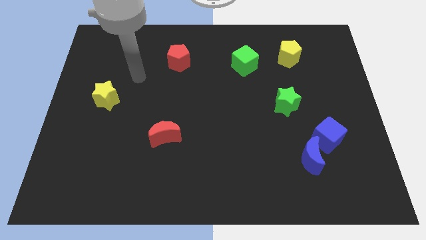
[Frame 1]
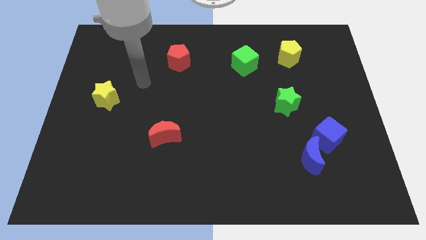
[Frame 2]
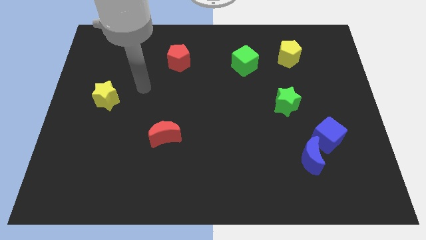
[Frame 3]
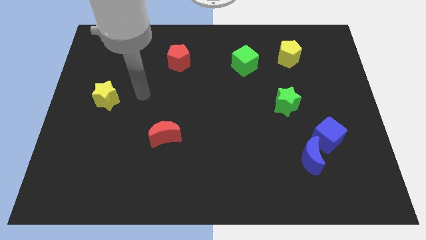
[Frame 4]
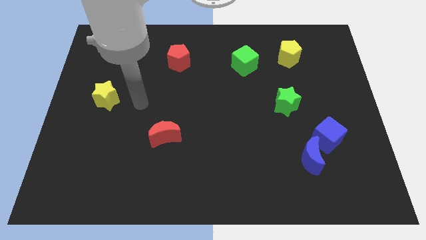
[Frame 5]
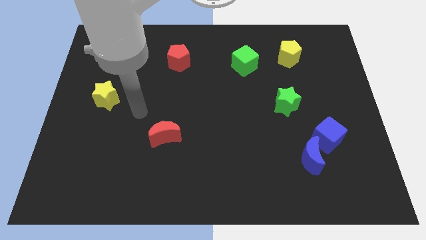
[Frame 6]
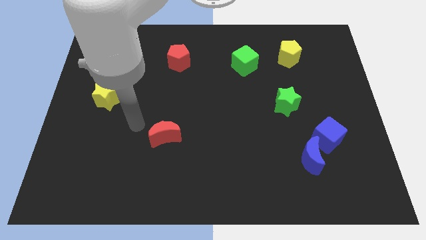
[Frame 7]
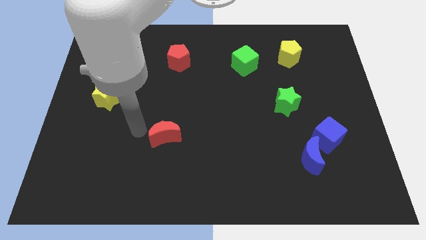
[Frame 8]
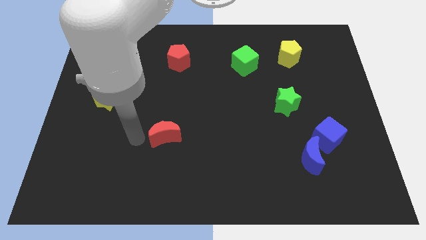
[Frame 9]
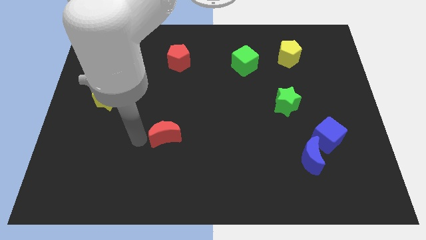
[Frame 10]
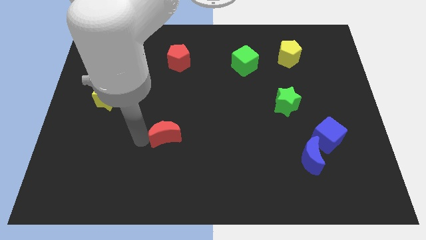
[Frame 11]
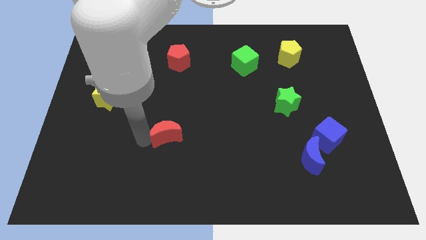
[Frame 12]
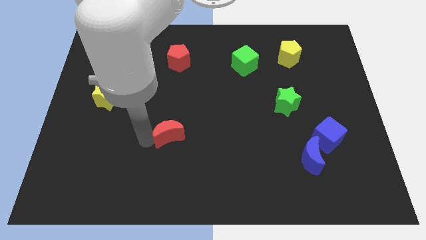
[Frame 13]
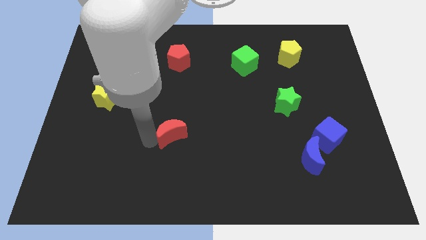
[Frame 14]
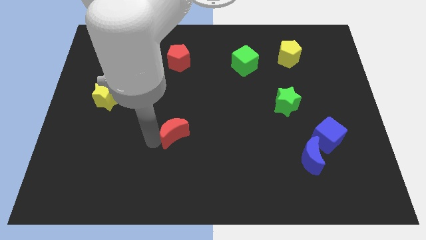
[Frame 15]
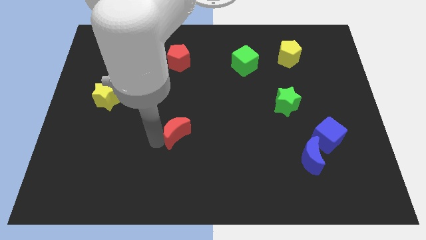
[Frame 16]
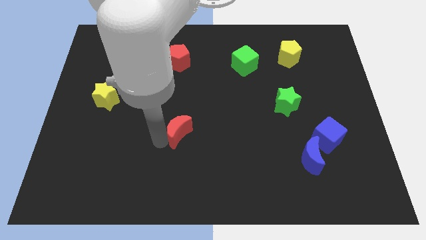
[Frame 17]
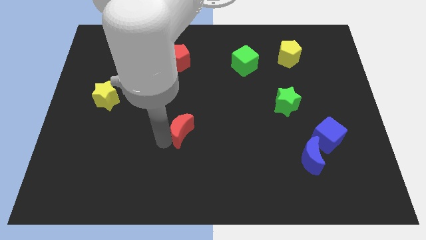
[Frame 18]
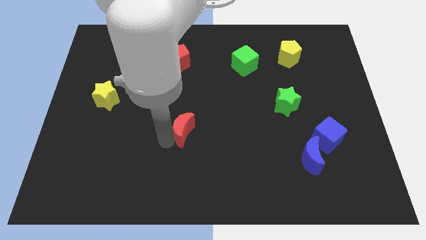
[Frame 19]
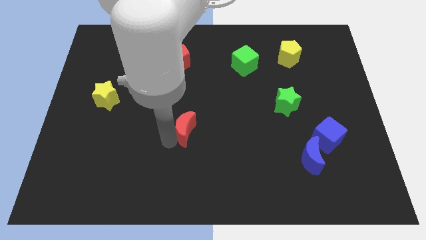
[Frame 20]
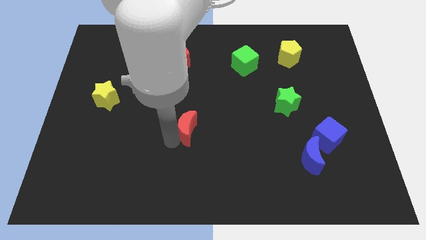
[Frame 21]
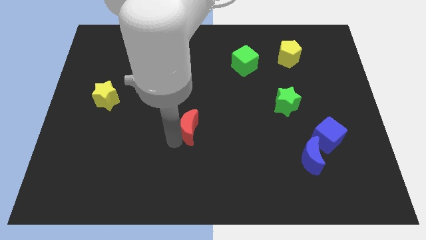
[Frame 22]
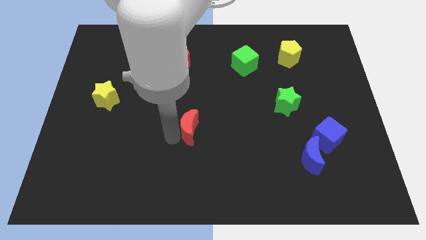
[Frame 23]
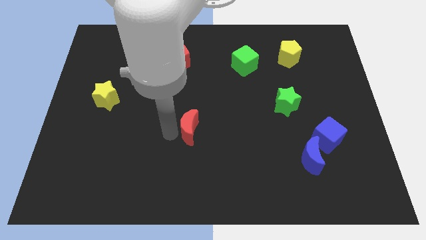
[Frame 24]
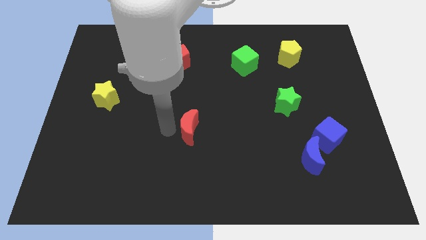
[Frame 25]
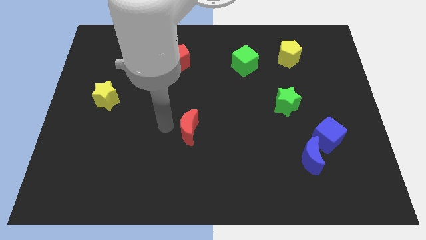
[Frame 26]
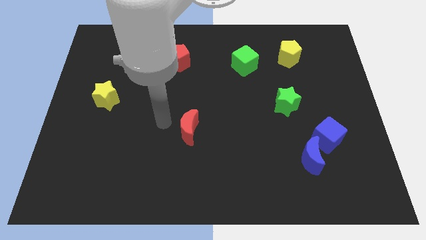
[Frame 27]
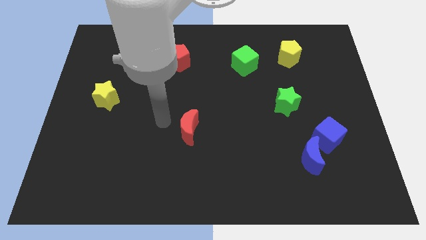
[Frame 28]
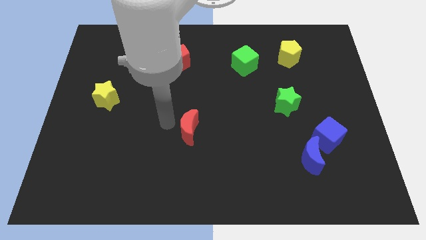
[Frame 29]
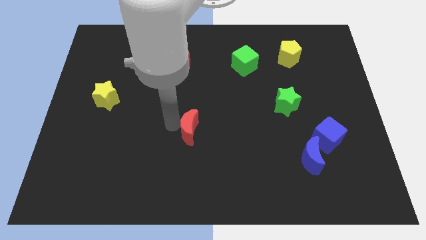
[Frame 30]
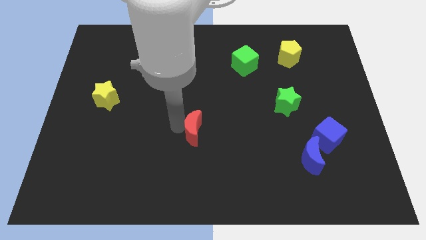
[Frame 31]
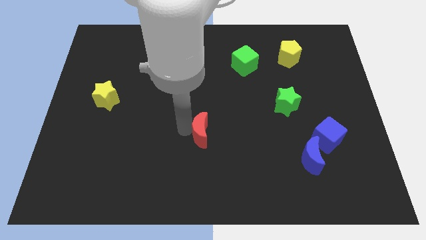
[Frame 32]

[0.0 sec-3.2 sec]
push the red moon somewhat right

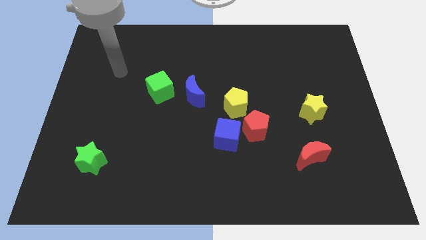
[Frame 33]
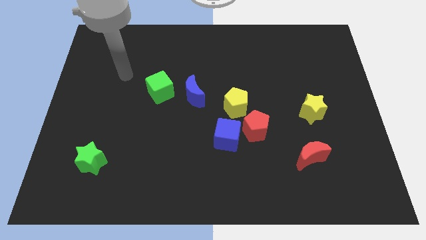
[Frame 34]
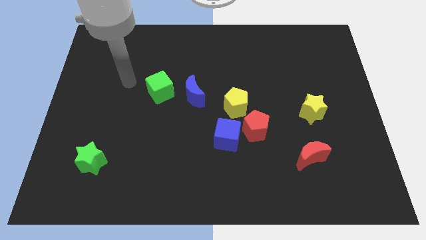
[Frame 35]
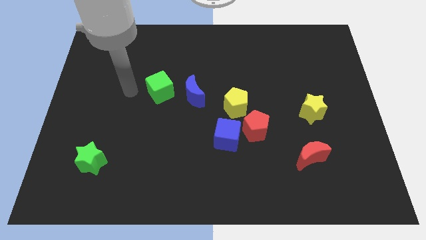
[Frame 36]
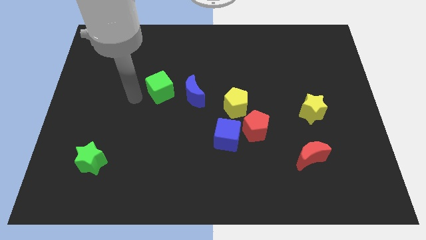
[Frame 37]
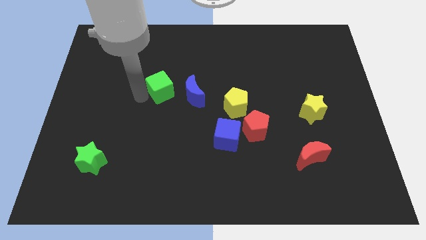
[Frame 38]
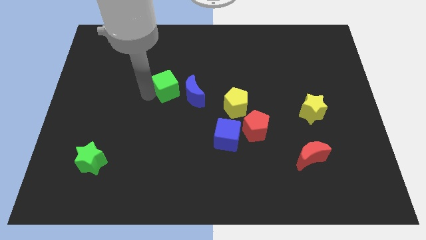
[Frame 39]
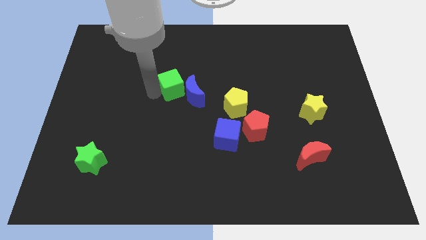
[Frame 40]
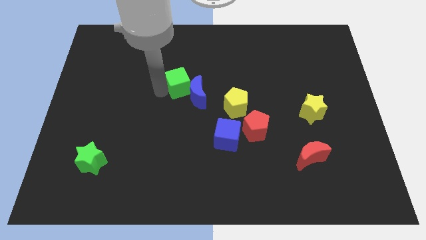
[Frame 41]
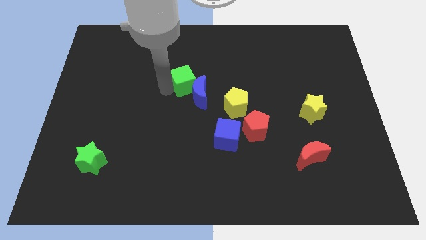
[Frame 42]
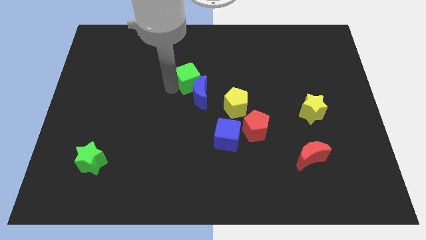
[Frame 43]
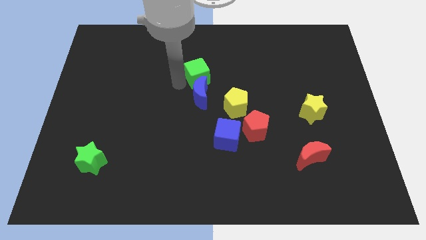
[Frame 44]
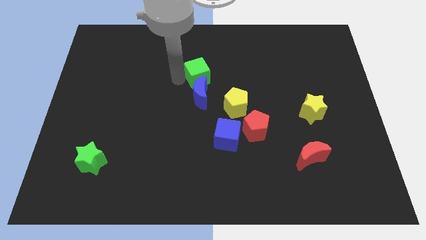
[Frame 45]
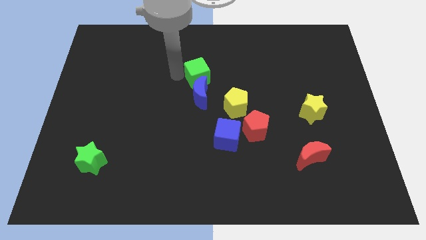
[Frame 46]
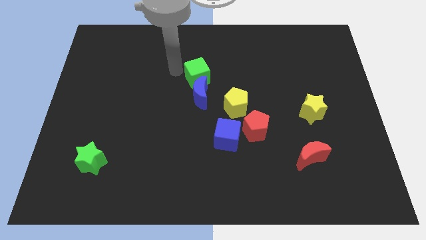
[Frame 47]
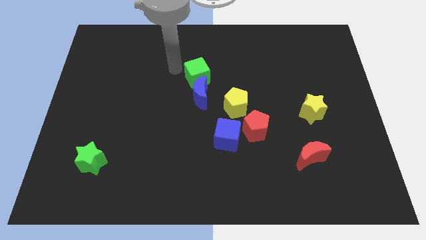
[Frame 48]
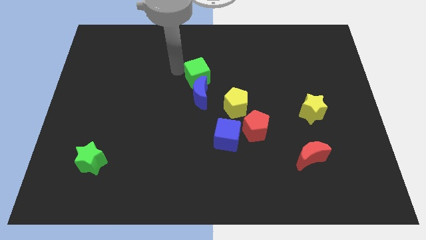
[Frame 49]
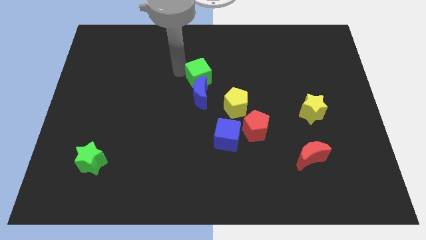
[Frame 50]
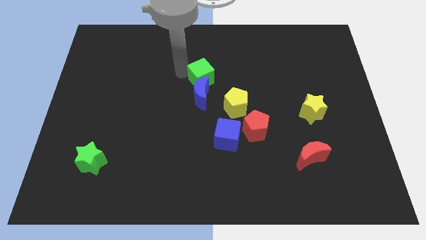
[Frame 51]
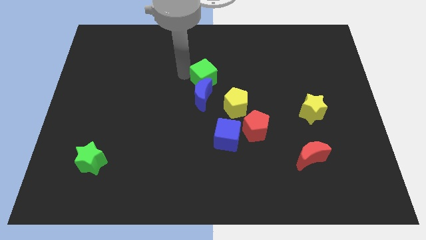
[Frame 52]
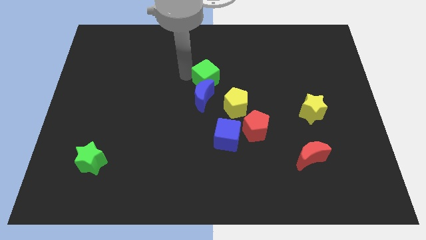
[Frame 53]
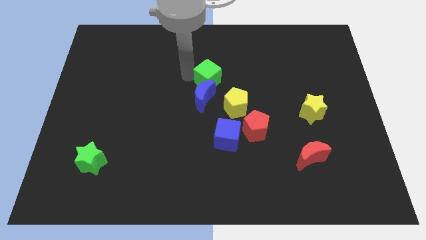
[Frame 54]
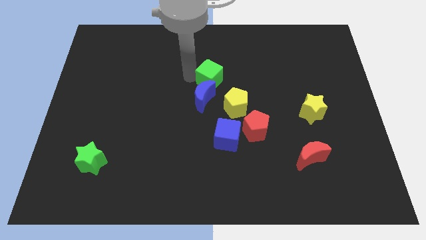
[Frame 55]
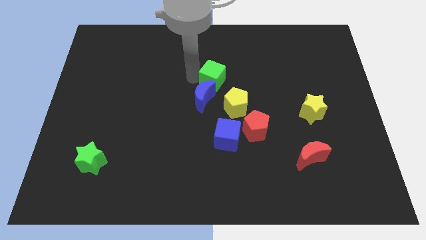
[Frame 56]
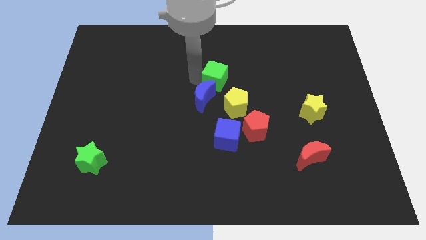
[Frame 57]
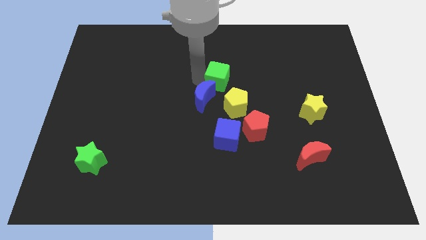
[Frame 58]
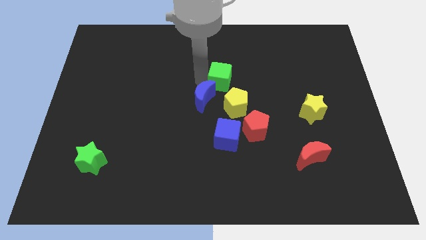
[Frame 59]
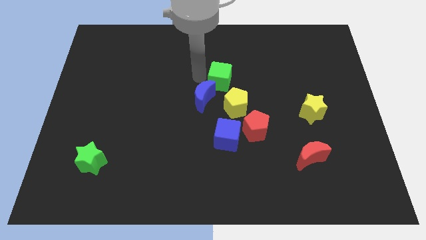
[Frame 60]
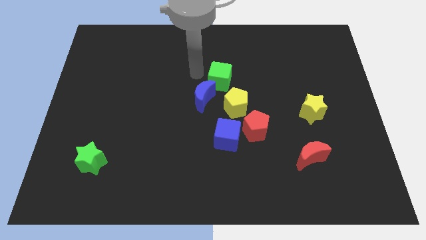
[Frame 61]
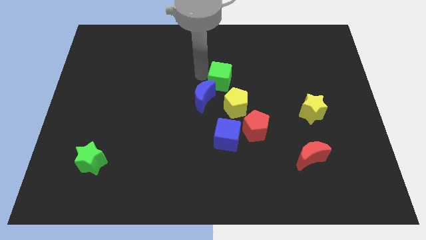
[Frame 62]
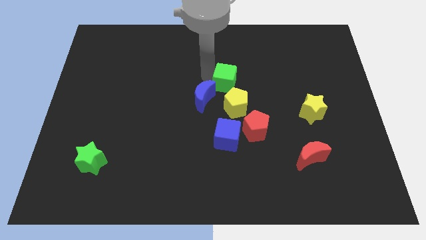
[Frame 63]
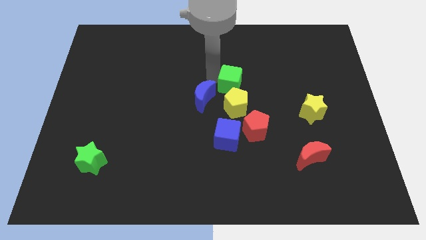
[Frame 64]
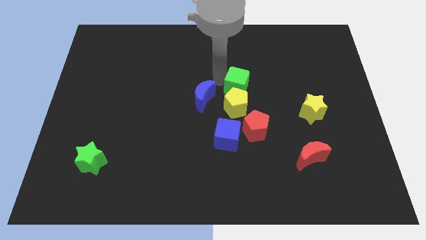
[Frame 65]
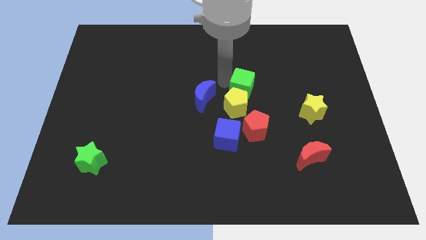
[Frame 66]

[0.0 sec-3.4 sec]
push the green cube right

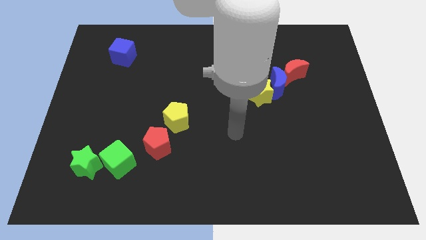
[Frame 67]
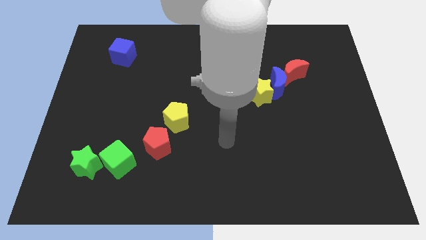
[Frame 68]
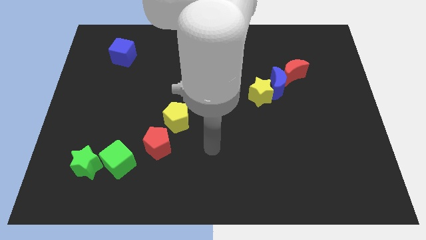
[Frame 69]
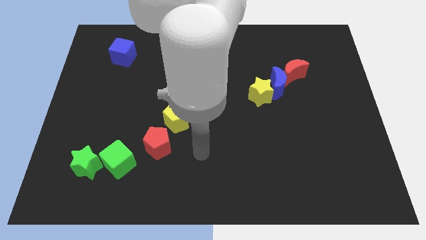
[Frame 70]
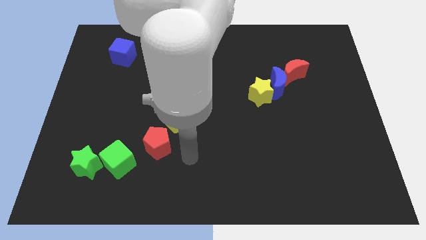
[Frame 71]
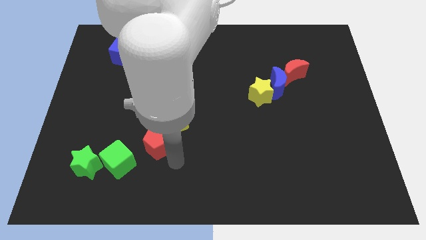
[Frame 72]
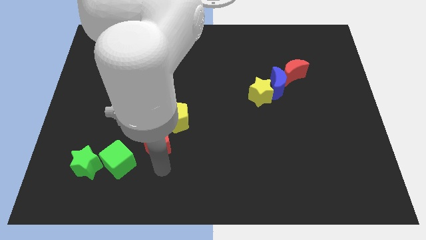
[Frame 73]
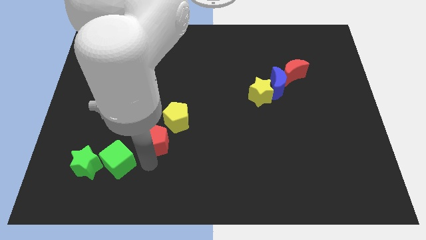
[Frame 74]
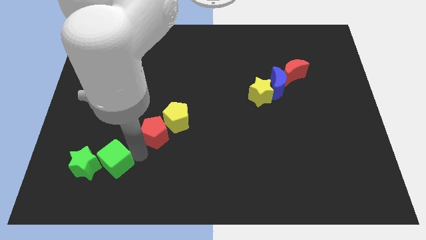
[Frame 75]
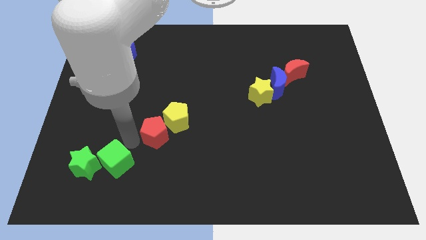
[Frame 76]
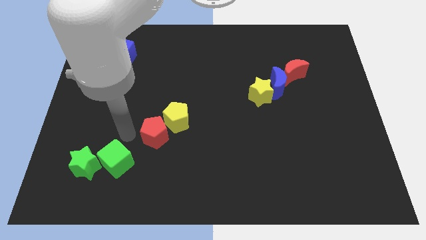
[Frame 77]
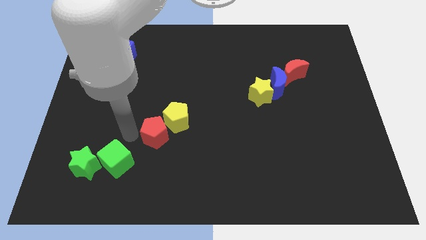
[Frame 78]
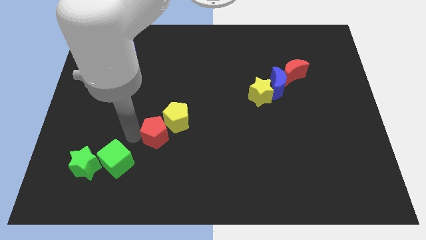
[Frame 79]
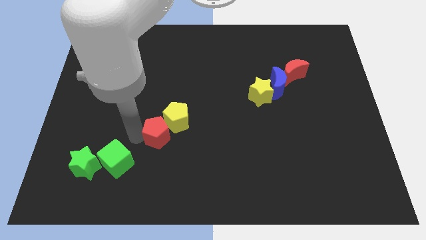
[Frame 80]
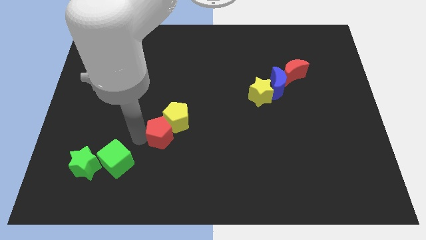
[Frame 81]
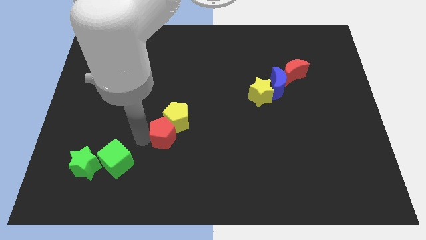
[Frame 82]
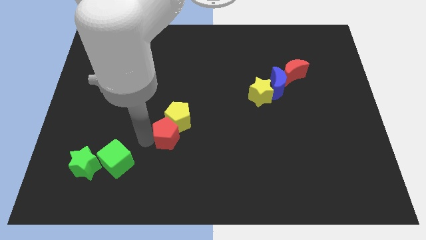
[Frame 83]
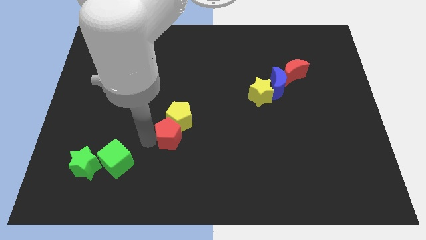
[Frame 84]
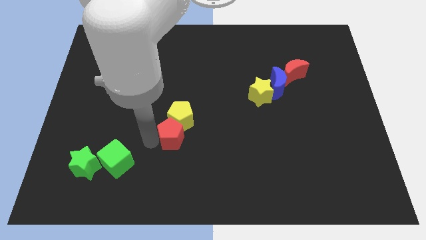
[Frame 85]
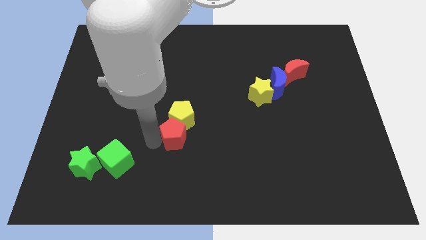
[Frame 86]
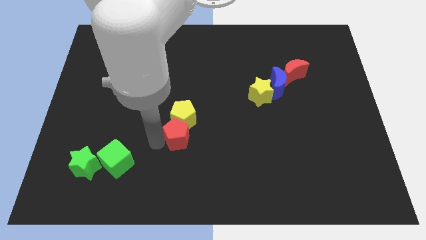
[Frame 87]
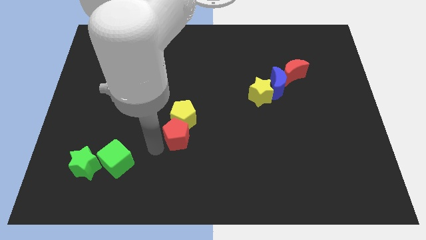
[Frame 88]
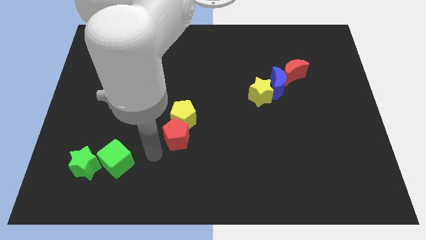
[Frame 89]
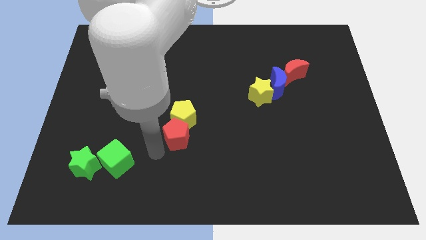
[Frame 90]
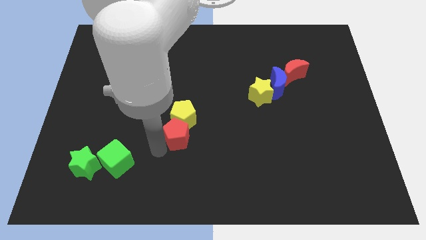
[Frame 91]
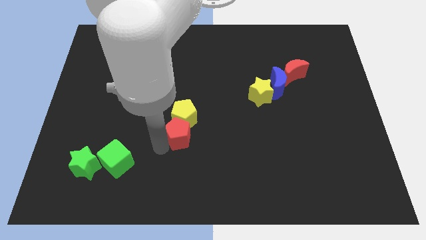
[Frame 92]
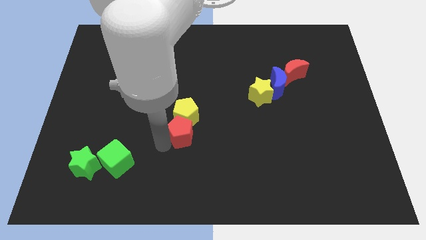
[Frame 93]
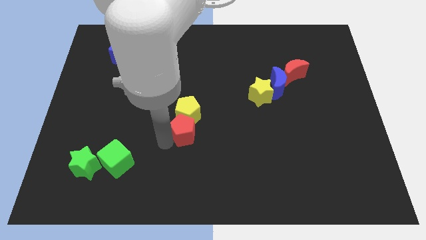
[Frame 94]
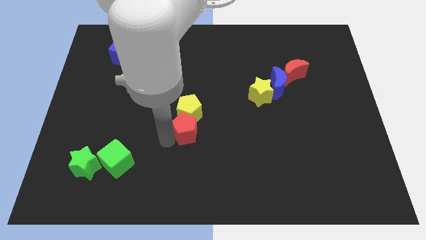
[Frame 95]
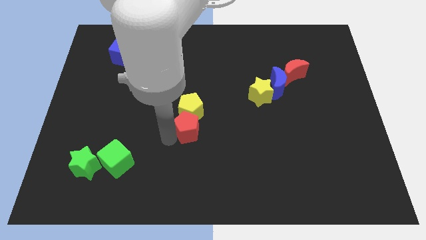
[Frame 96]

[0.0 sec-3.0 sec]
move the red pentagon a little upwards and then right
